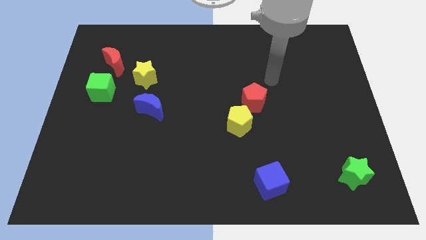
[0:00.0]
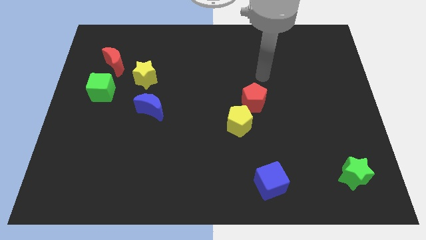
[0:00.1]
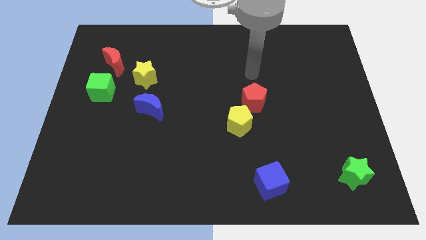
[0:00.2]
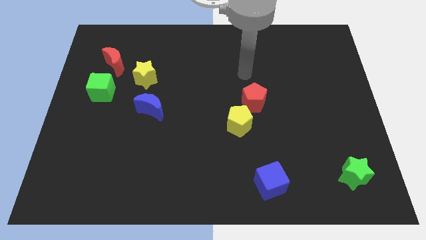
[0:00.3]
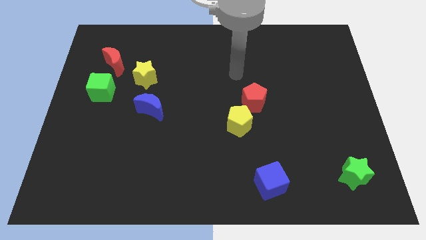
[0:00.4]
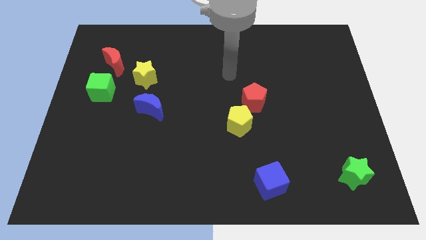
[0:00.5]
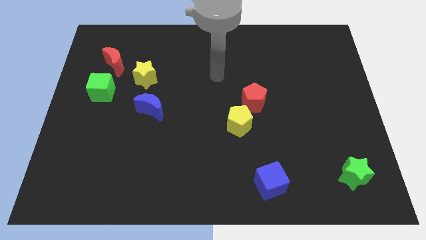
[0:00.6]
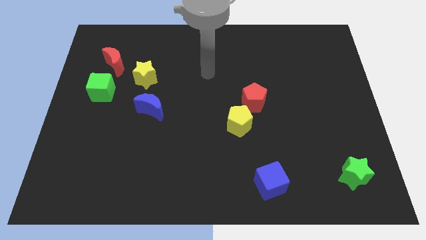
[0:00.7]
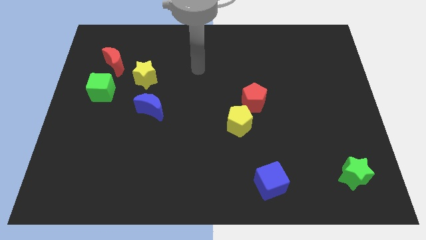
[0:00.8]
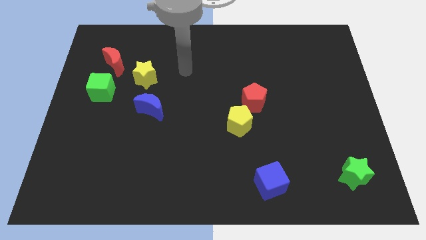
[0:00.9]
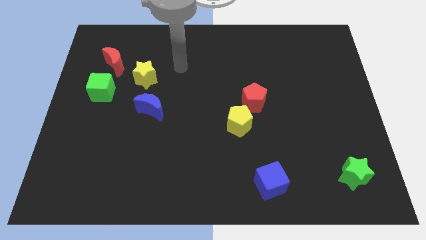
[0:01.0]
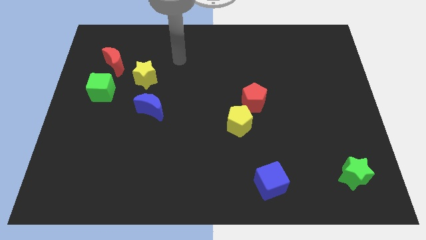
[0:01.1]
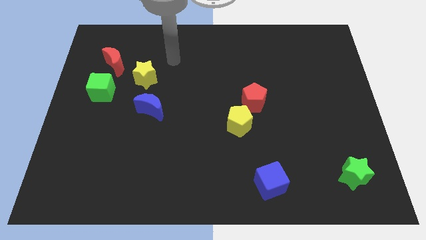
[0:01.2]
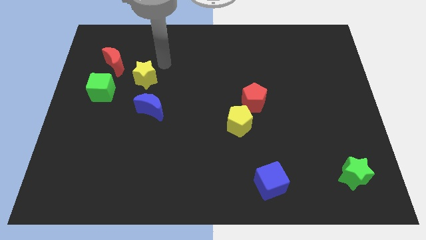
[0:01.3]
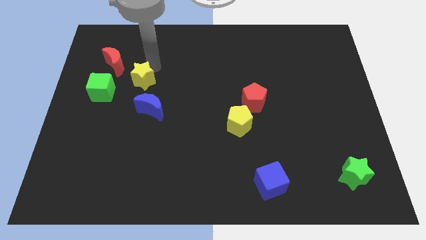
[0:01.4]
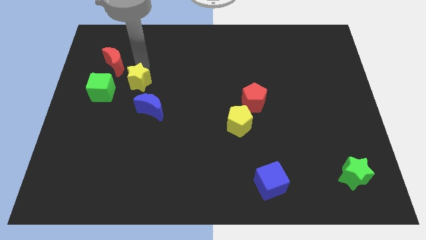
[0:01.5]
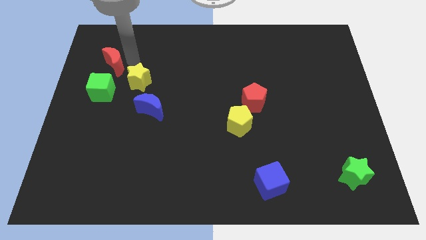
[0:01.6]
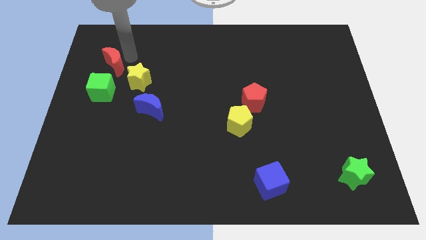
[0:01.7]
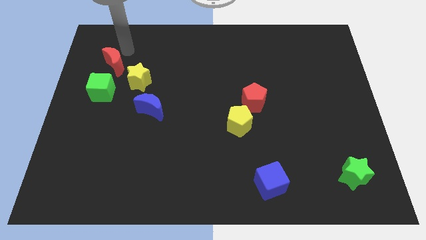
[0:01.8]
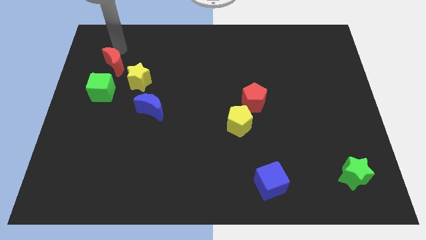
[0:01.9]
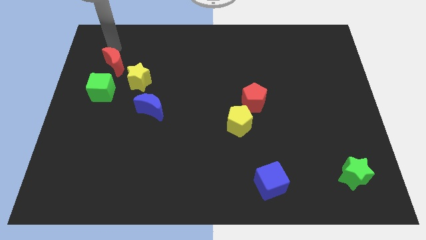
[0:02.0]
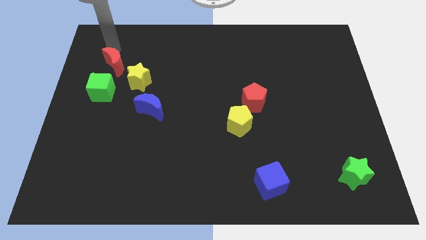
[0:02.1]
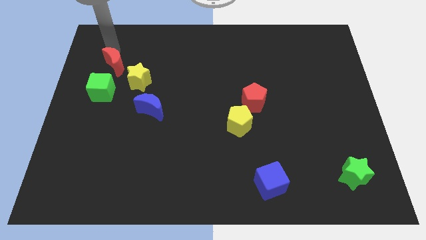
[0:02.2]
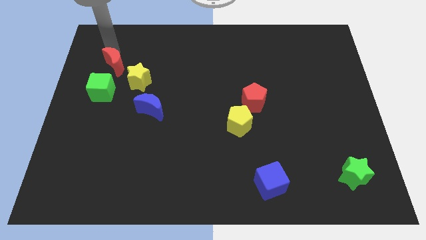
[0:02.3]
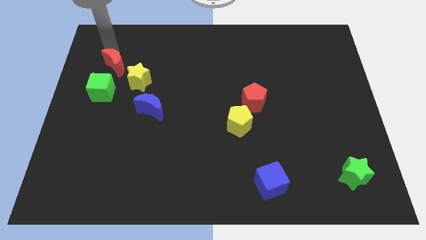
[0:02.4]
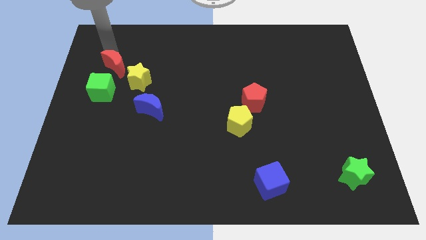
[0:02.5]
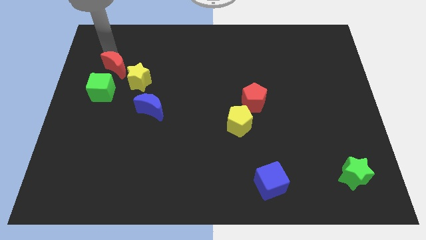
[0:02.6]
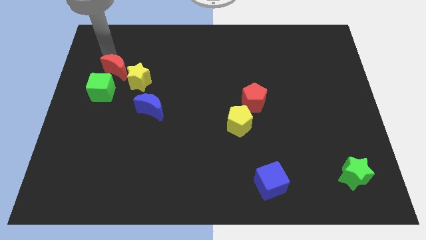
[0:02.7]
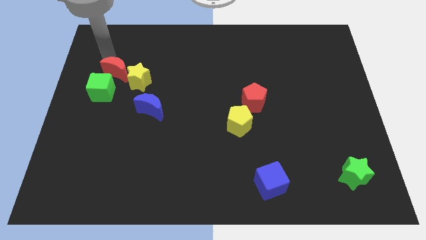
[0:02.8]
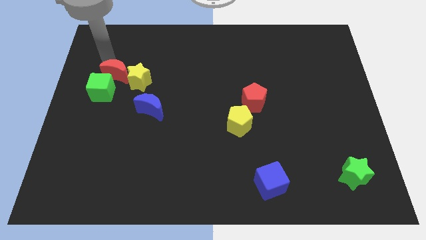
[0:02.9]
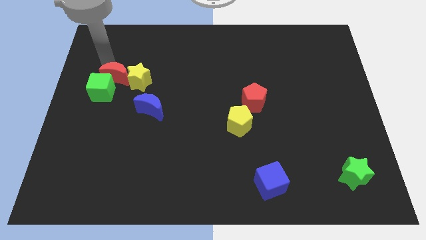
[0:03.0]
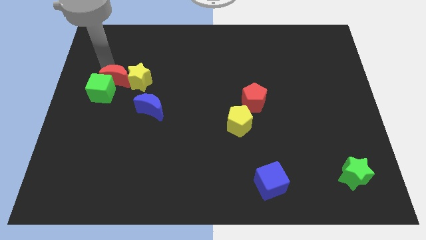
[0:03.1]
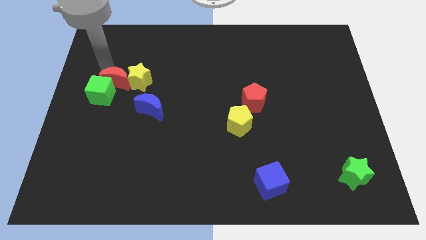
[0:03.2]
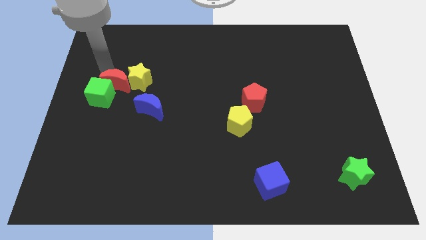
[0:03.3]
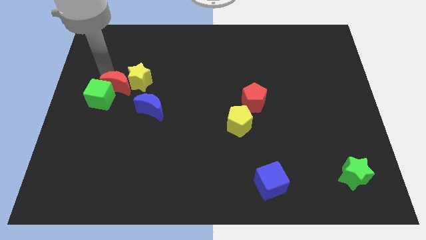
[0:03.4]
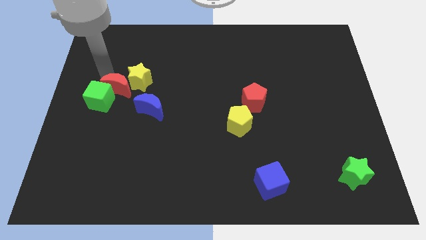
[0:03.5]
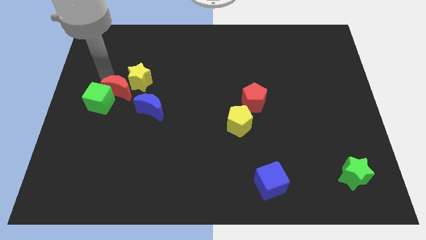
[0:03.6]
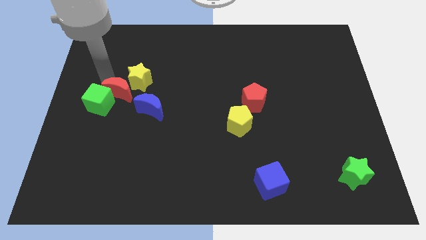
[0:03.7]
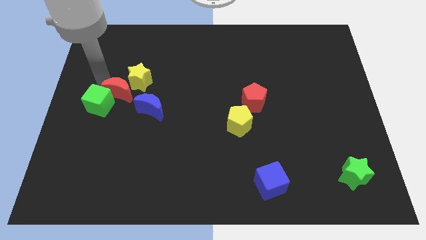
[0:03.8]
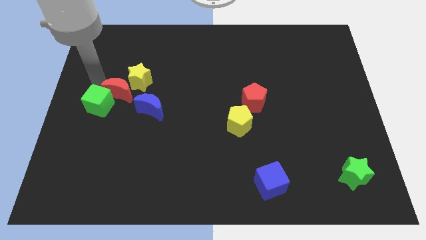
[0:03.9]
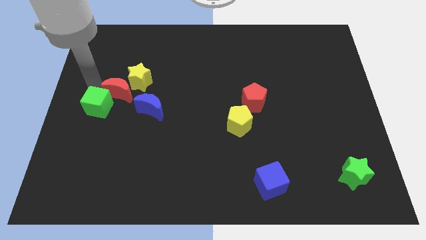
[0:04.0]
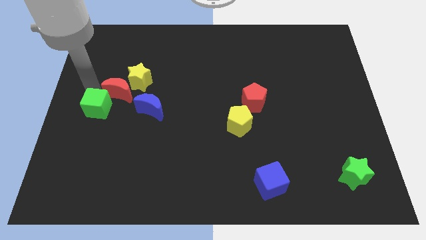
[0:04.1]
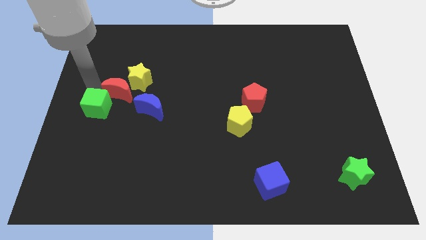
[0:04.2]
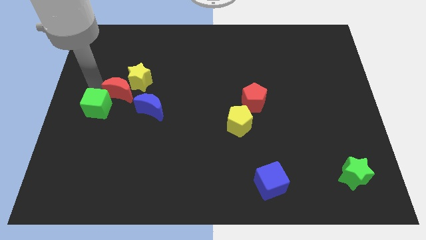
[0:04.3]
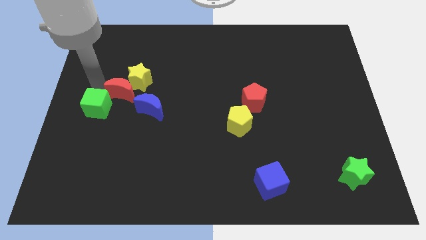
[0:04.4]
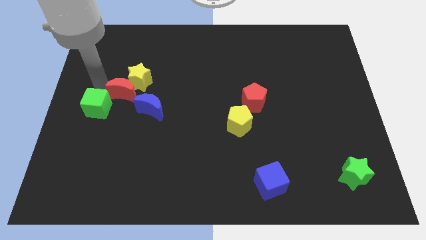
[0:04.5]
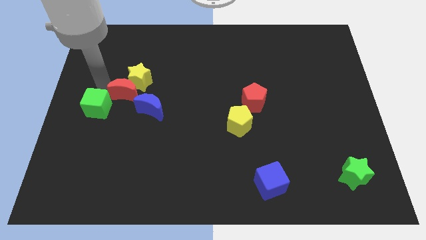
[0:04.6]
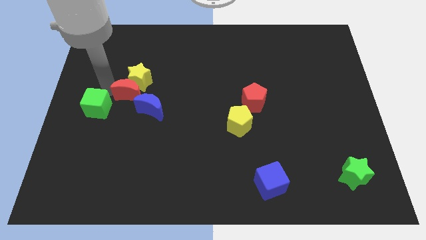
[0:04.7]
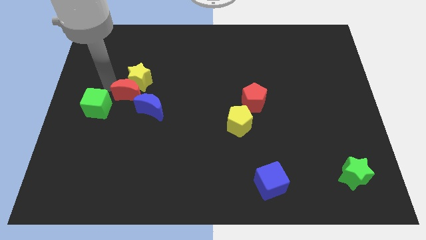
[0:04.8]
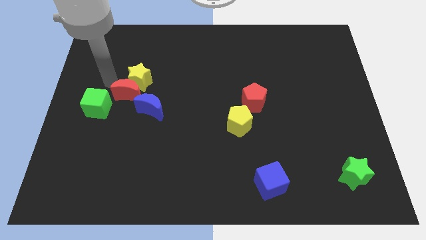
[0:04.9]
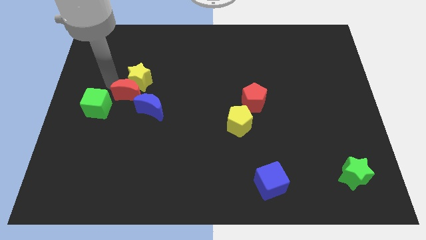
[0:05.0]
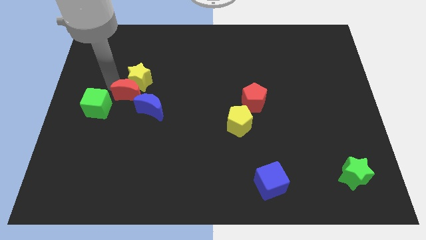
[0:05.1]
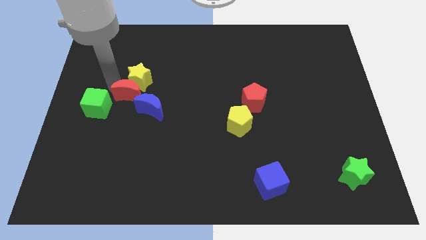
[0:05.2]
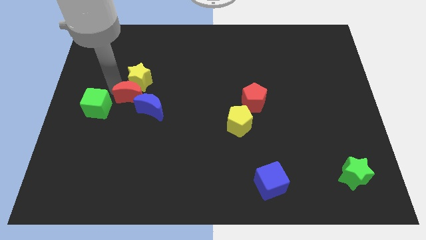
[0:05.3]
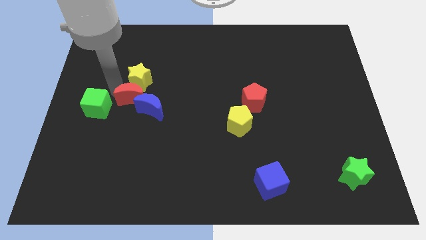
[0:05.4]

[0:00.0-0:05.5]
slide the red moon close to the blue moon

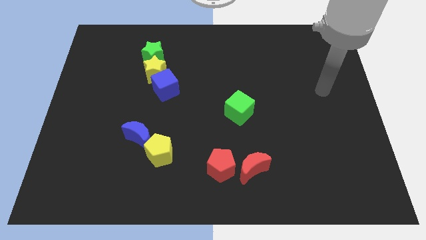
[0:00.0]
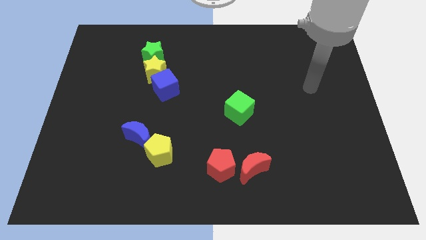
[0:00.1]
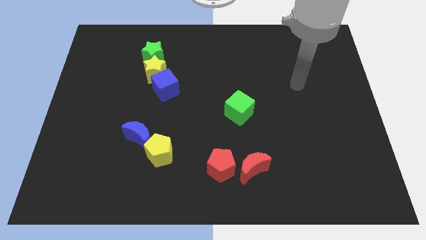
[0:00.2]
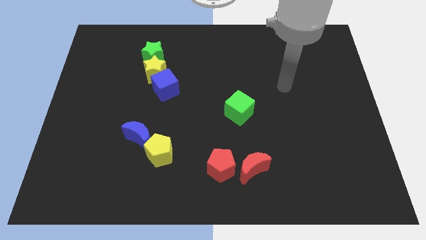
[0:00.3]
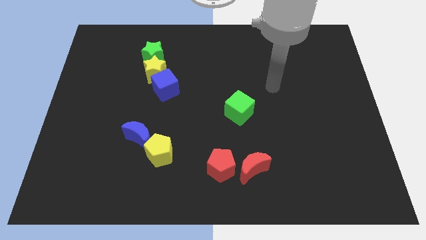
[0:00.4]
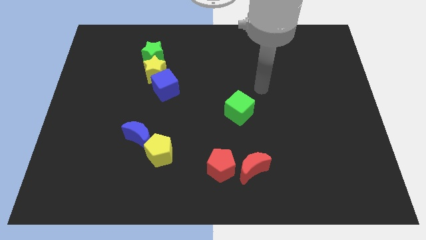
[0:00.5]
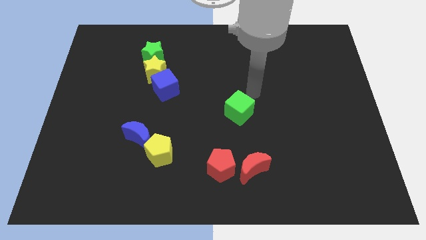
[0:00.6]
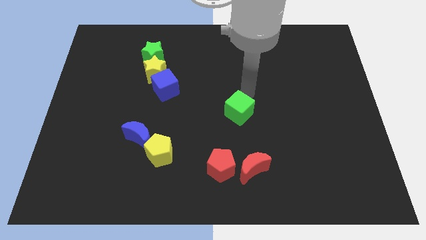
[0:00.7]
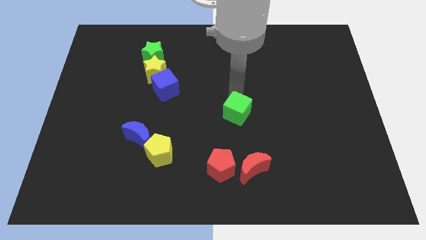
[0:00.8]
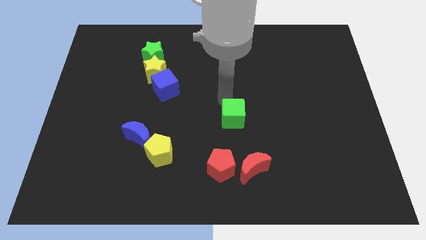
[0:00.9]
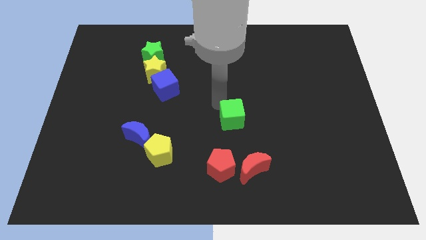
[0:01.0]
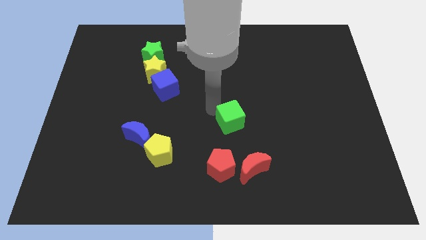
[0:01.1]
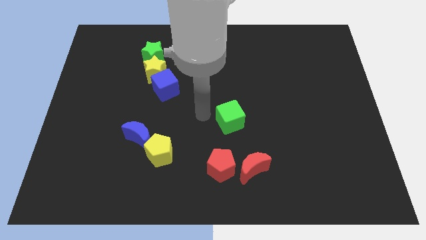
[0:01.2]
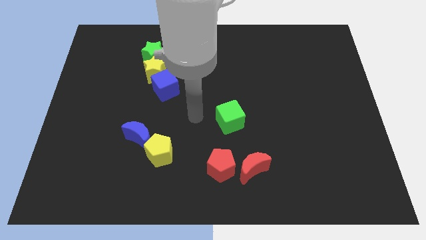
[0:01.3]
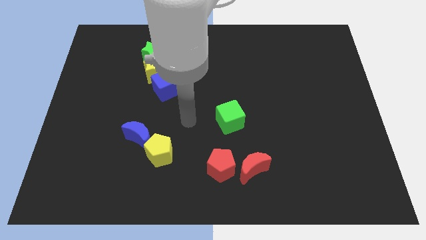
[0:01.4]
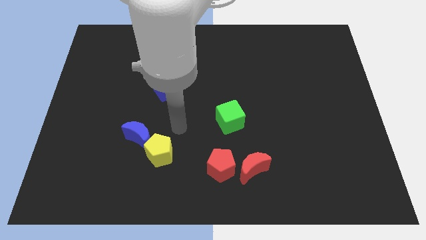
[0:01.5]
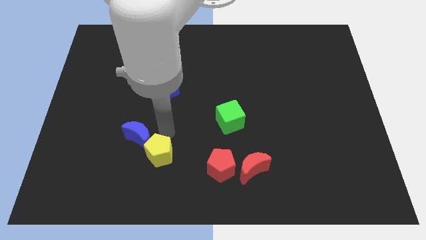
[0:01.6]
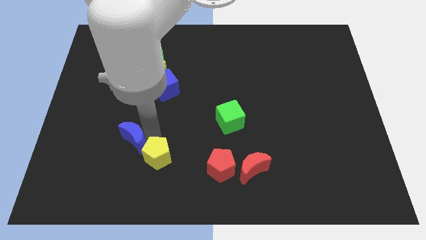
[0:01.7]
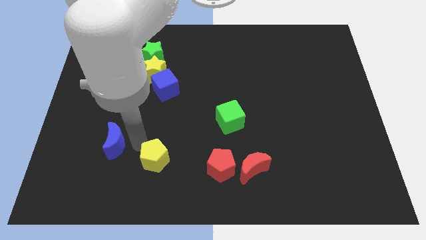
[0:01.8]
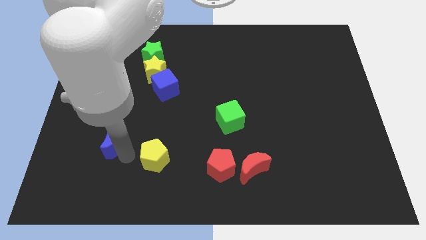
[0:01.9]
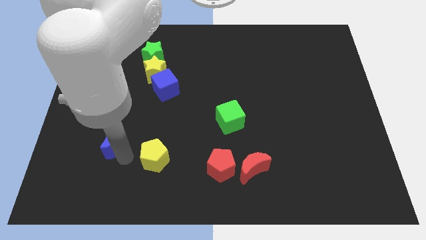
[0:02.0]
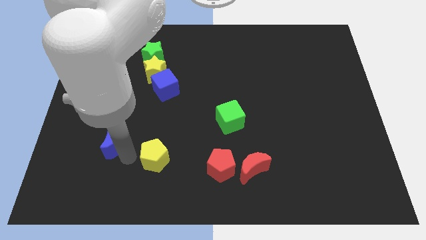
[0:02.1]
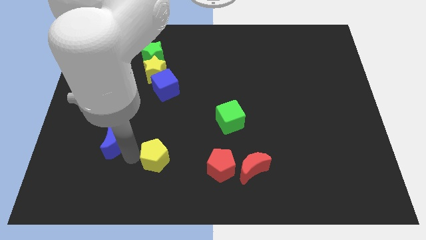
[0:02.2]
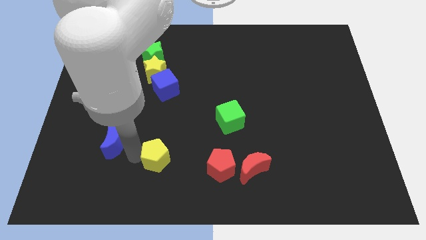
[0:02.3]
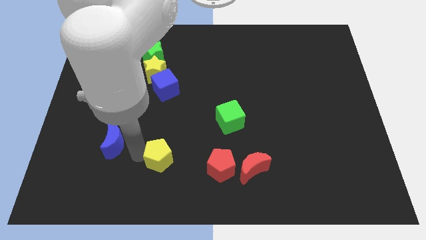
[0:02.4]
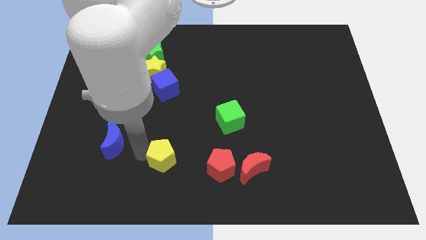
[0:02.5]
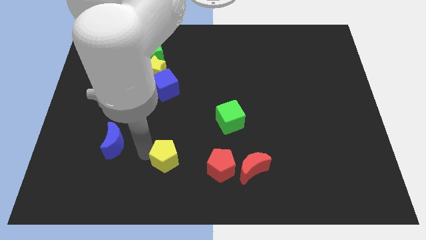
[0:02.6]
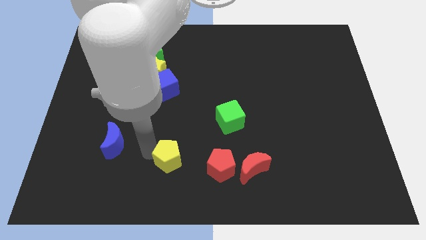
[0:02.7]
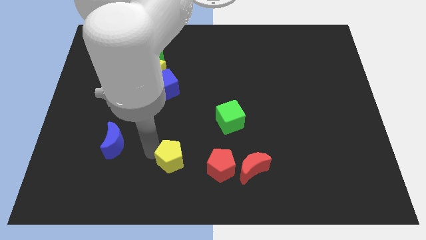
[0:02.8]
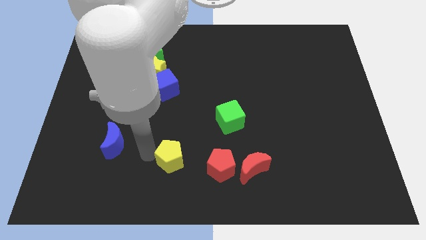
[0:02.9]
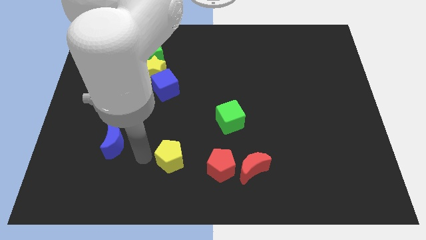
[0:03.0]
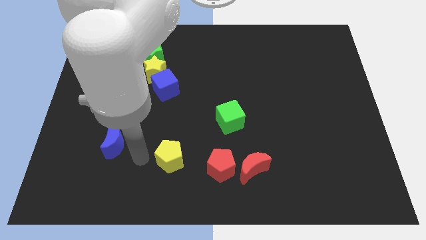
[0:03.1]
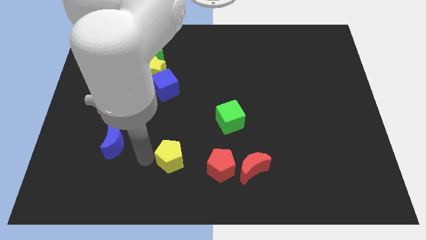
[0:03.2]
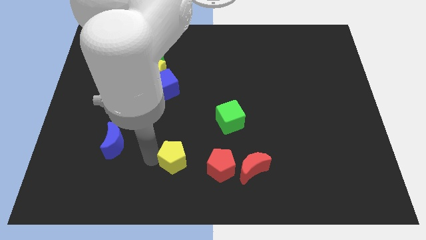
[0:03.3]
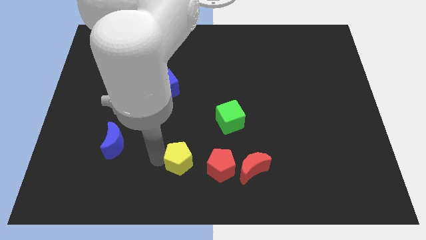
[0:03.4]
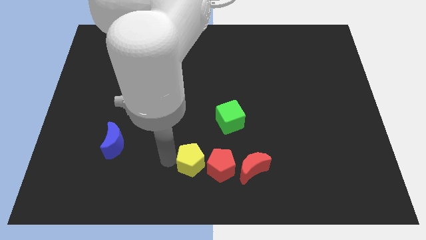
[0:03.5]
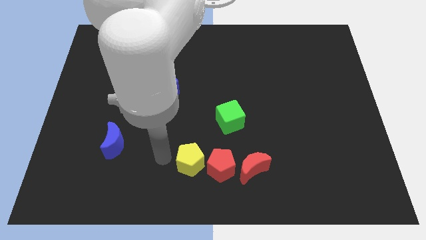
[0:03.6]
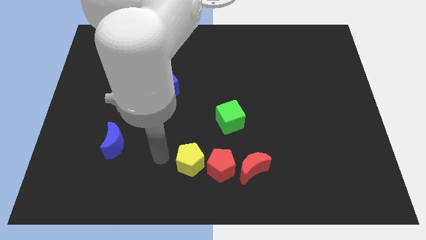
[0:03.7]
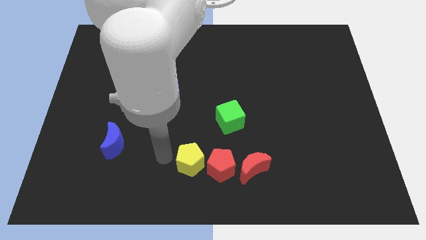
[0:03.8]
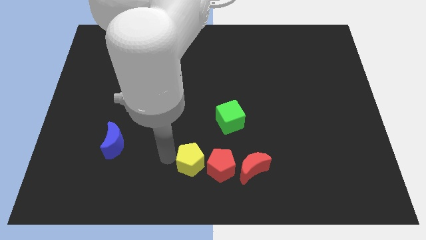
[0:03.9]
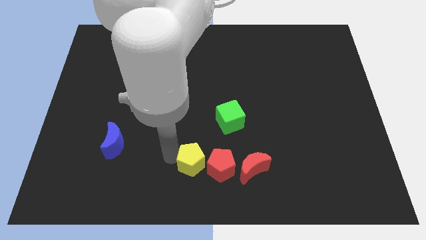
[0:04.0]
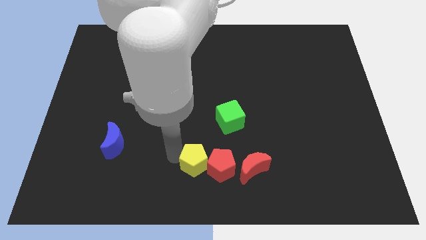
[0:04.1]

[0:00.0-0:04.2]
slide the yellow pentagon towards the red pentagon
